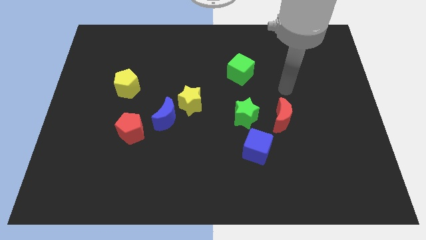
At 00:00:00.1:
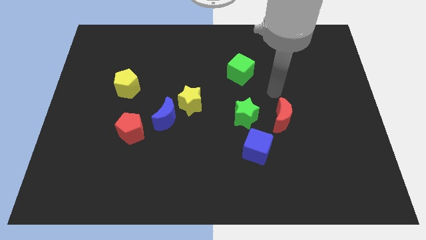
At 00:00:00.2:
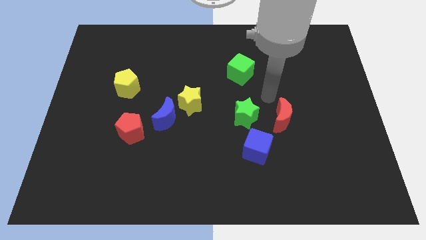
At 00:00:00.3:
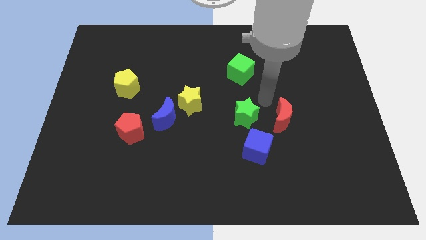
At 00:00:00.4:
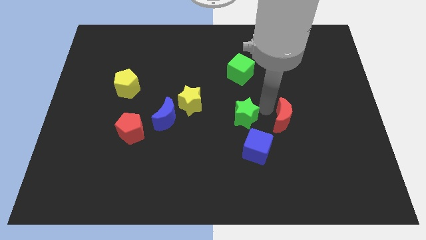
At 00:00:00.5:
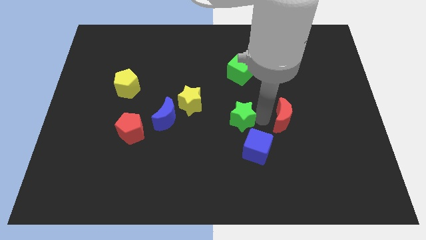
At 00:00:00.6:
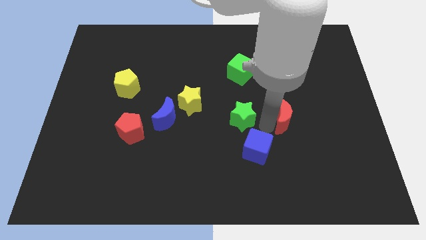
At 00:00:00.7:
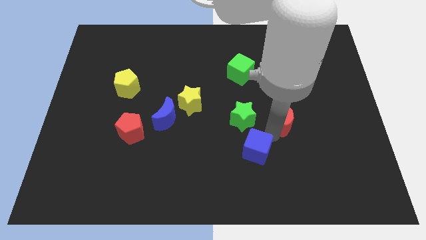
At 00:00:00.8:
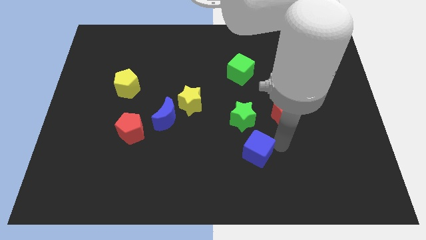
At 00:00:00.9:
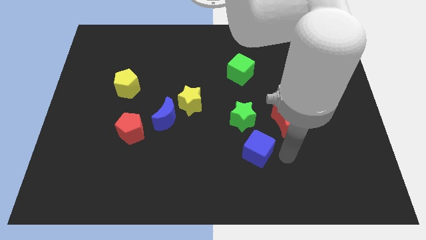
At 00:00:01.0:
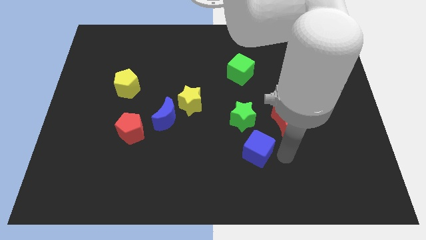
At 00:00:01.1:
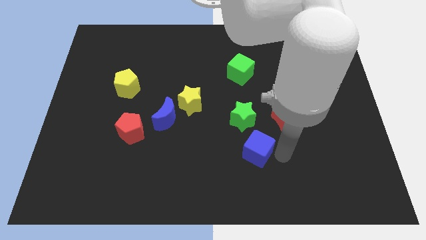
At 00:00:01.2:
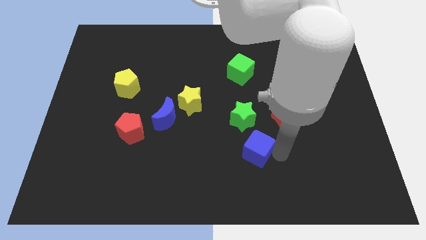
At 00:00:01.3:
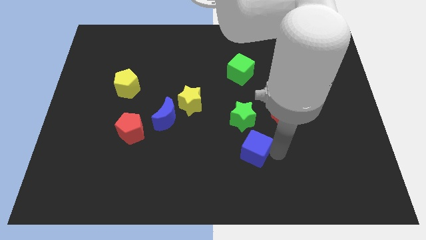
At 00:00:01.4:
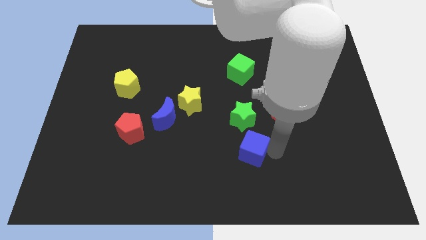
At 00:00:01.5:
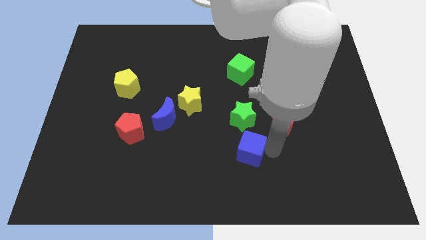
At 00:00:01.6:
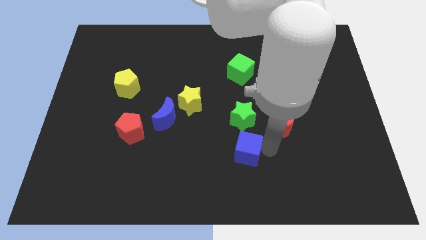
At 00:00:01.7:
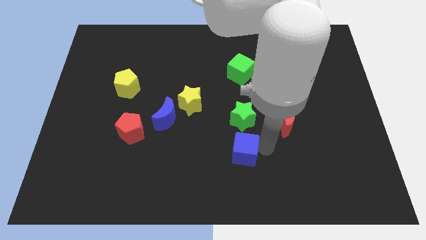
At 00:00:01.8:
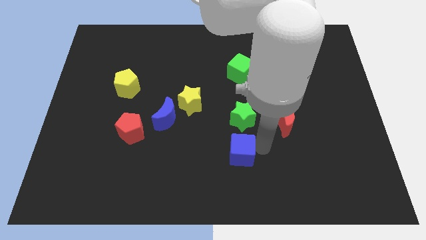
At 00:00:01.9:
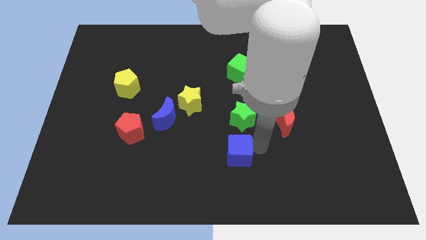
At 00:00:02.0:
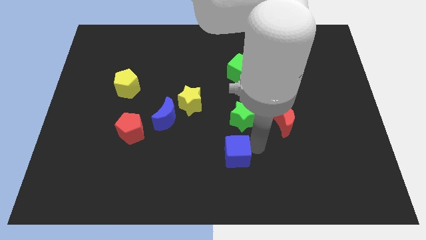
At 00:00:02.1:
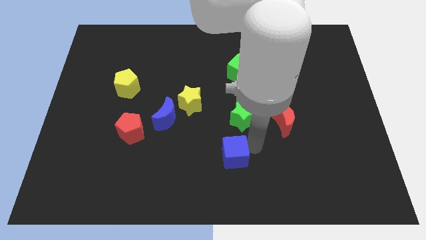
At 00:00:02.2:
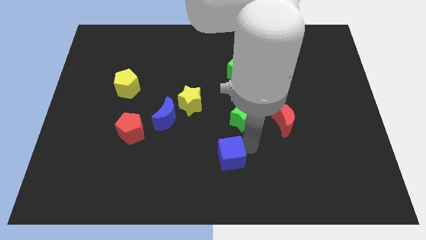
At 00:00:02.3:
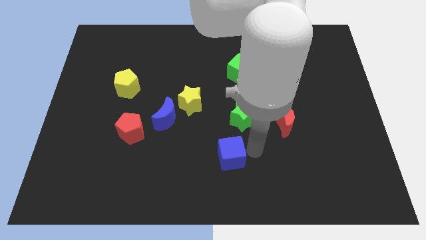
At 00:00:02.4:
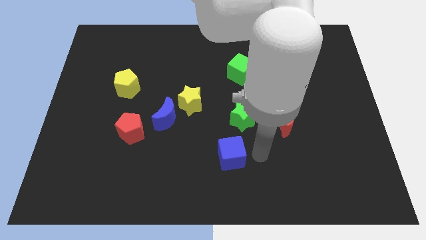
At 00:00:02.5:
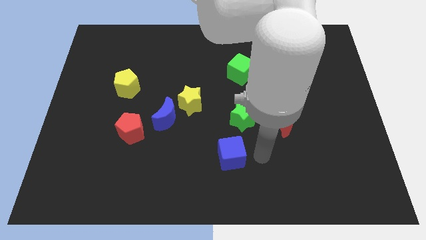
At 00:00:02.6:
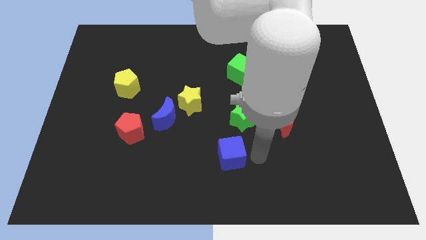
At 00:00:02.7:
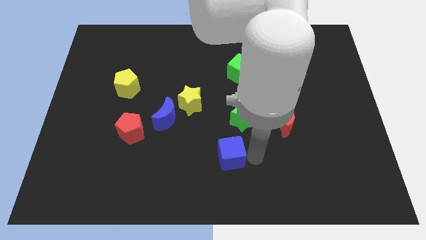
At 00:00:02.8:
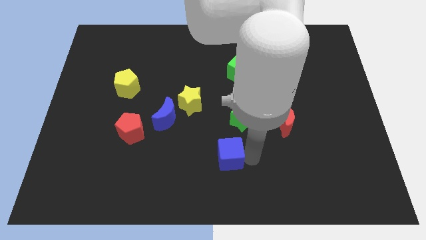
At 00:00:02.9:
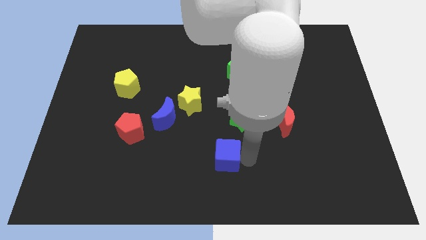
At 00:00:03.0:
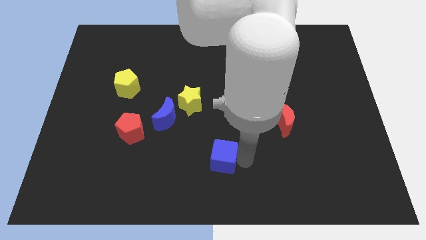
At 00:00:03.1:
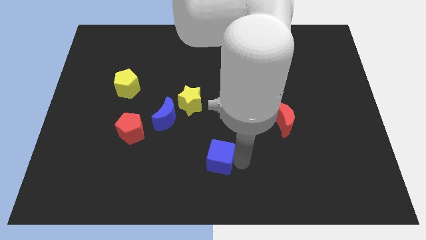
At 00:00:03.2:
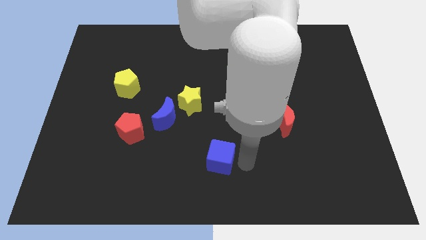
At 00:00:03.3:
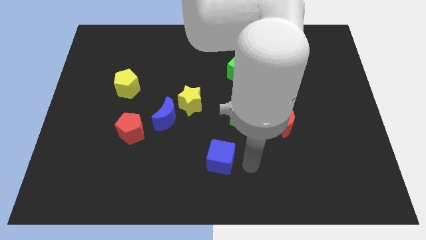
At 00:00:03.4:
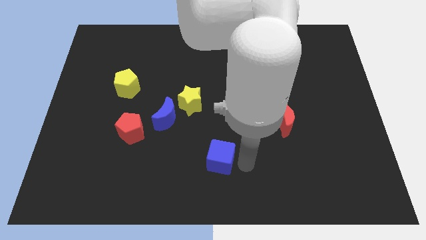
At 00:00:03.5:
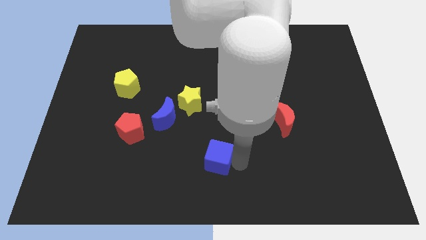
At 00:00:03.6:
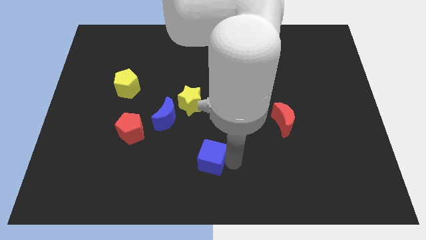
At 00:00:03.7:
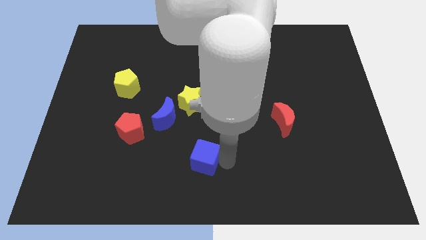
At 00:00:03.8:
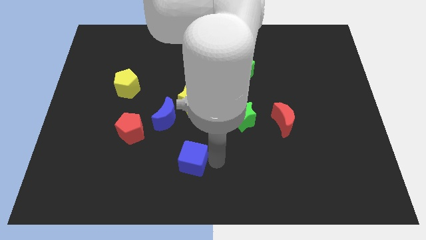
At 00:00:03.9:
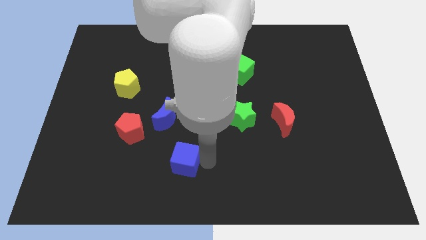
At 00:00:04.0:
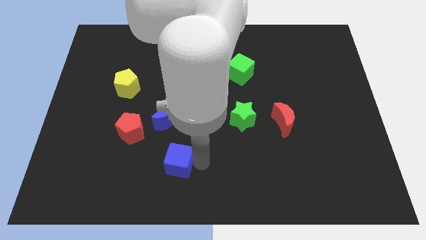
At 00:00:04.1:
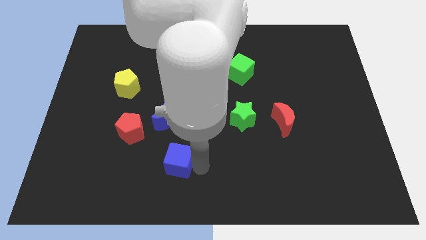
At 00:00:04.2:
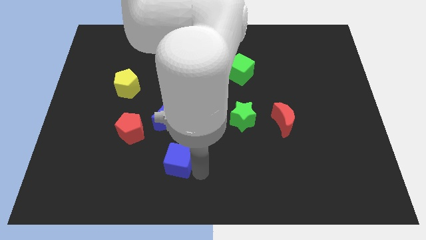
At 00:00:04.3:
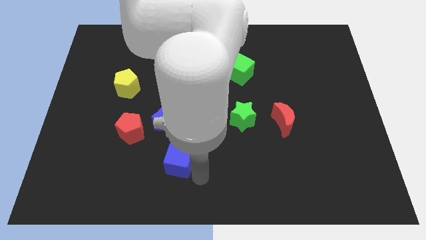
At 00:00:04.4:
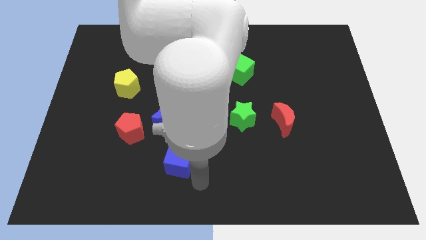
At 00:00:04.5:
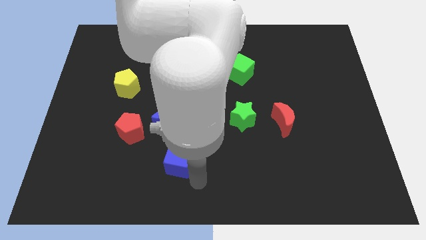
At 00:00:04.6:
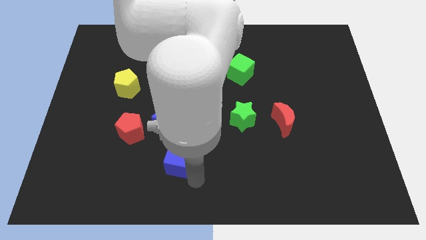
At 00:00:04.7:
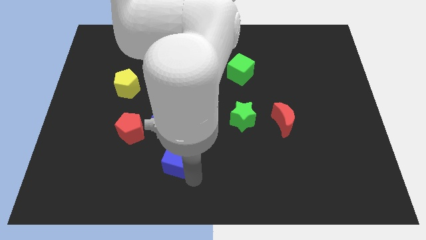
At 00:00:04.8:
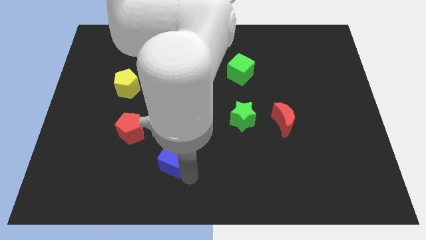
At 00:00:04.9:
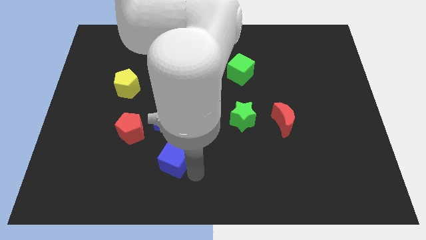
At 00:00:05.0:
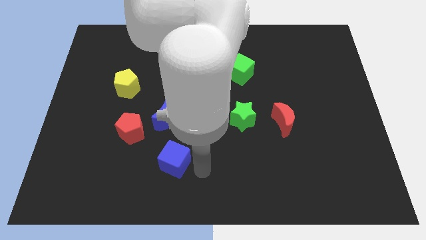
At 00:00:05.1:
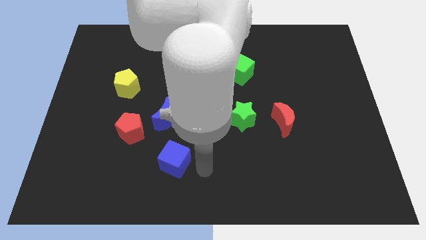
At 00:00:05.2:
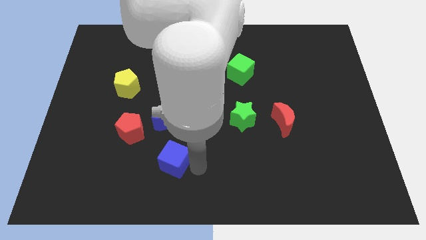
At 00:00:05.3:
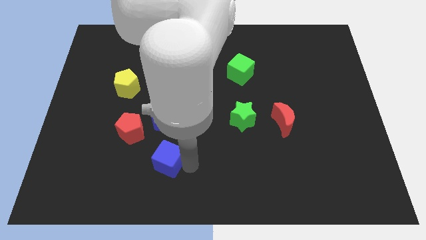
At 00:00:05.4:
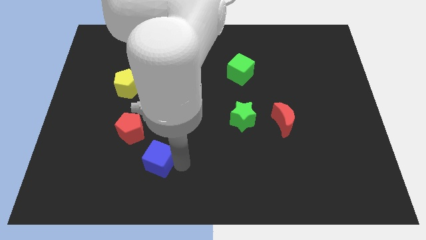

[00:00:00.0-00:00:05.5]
push the blue cube left

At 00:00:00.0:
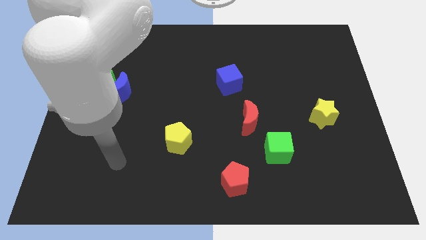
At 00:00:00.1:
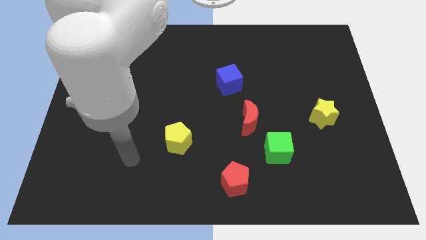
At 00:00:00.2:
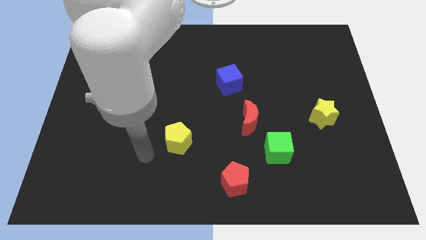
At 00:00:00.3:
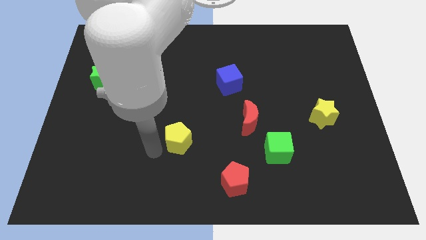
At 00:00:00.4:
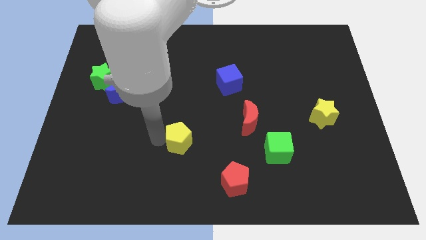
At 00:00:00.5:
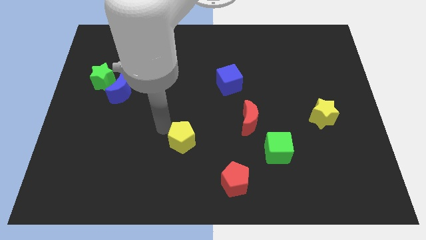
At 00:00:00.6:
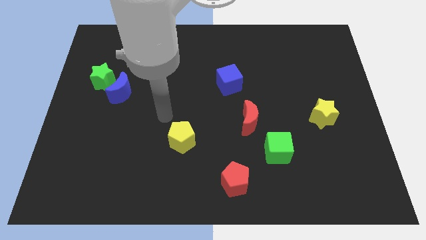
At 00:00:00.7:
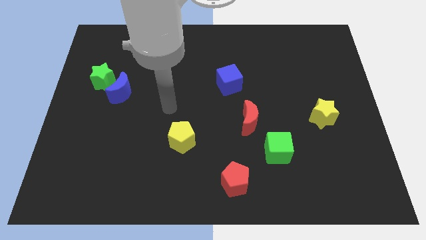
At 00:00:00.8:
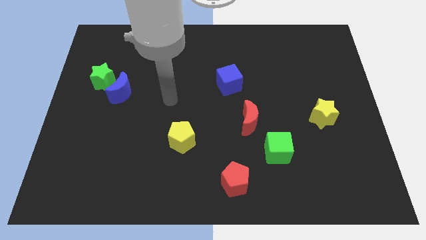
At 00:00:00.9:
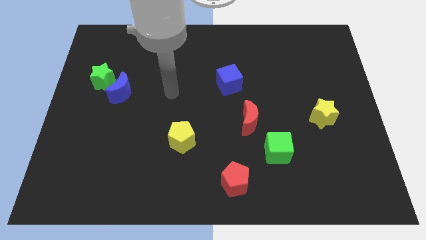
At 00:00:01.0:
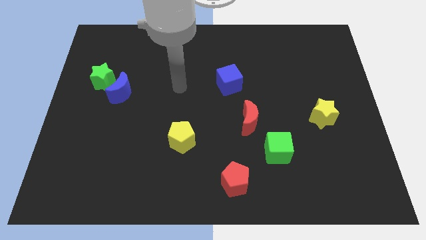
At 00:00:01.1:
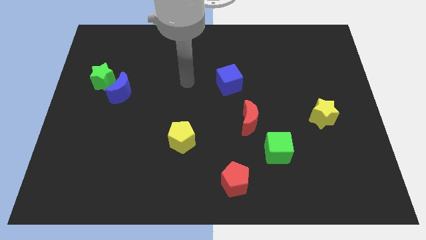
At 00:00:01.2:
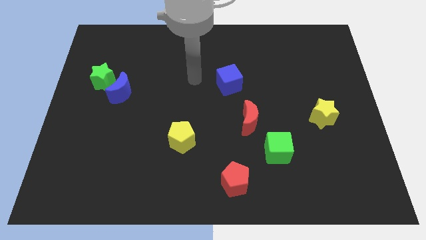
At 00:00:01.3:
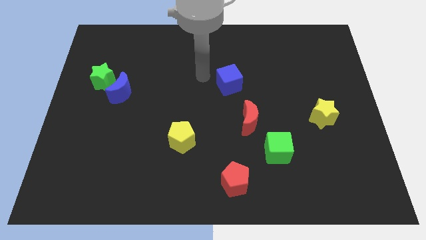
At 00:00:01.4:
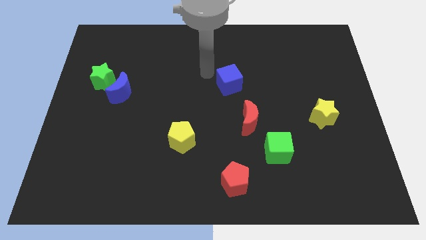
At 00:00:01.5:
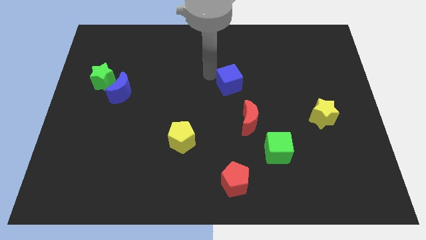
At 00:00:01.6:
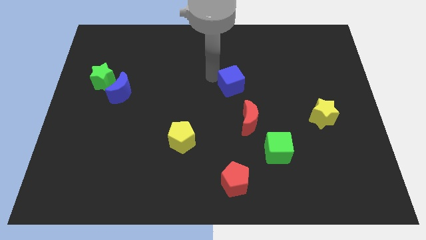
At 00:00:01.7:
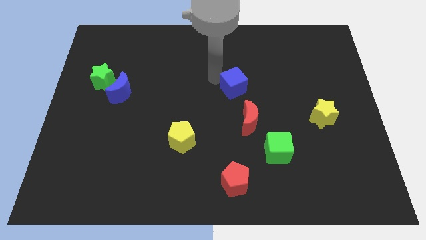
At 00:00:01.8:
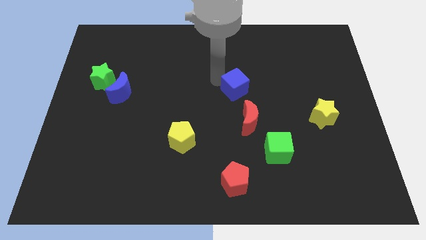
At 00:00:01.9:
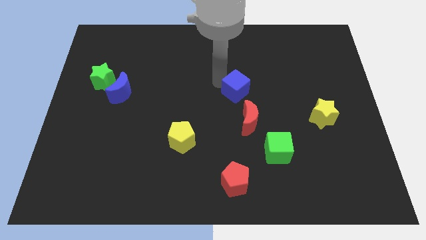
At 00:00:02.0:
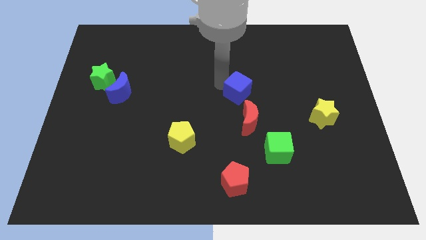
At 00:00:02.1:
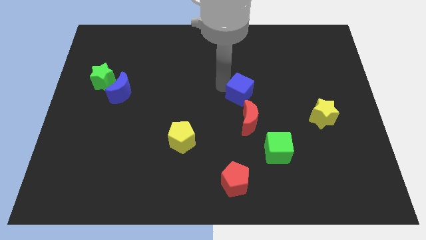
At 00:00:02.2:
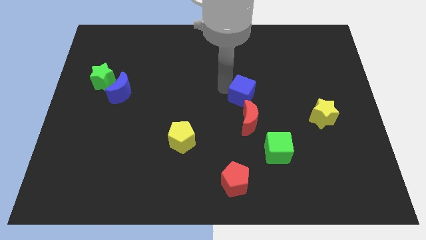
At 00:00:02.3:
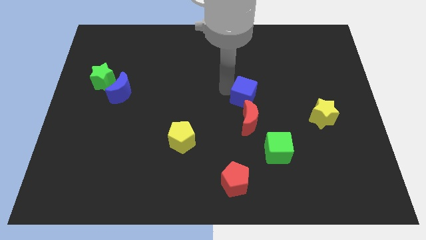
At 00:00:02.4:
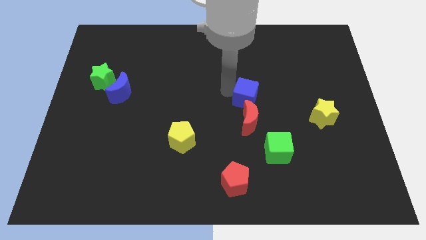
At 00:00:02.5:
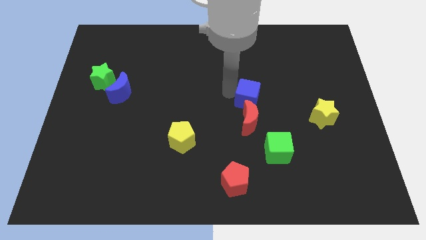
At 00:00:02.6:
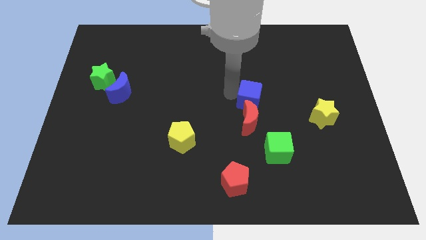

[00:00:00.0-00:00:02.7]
move the blue cube somewhat downwards and to the right

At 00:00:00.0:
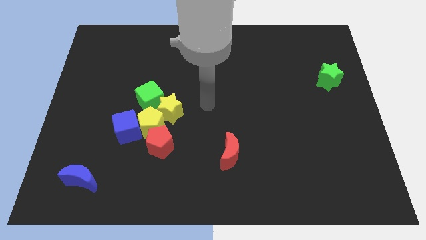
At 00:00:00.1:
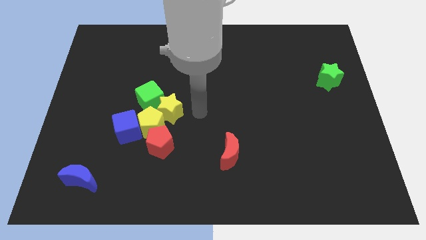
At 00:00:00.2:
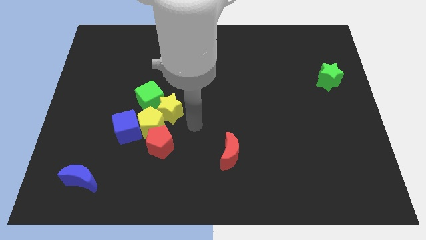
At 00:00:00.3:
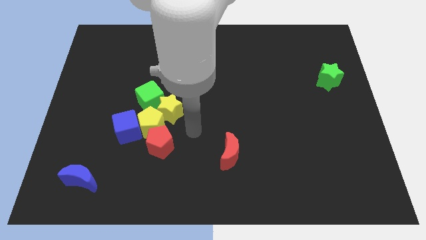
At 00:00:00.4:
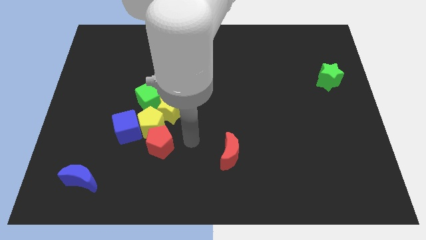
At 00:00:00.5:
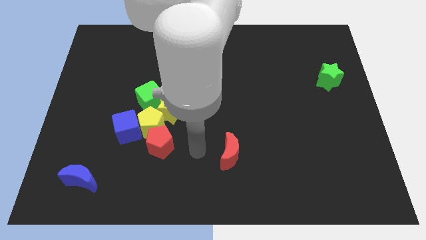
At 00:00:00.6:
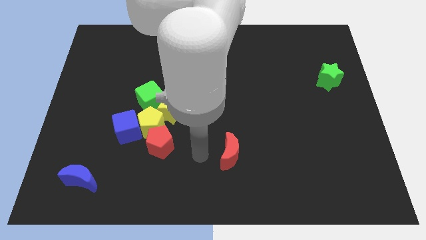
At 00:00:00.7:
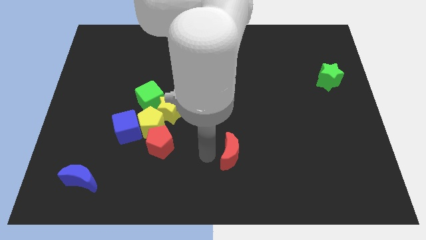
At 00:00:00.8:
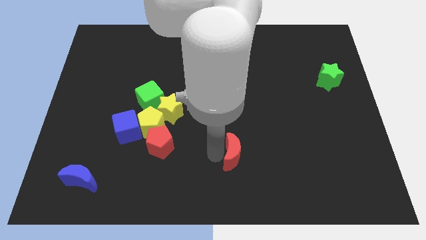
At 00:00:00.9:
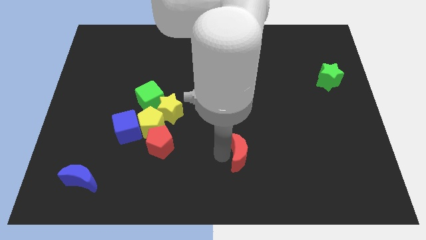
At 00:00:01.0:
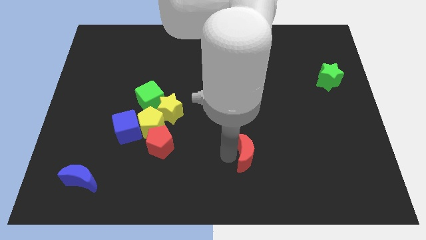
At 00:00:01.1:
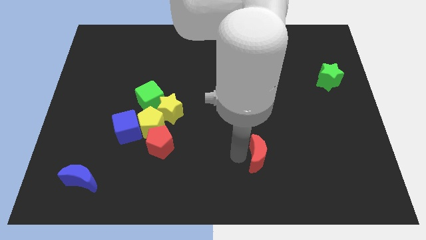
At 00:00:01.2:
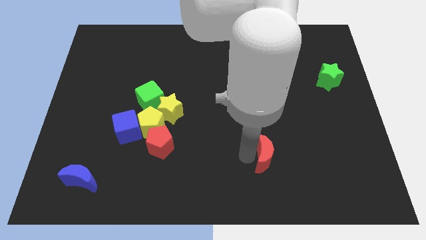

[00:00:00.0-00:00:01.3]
push the red moon to the right a little
